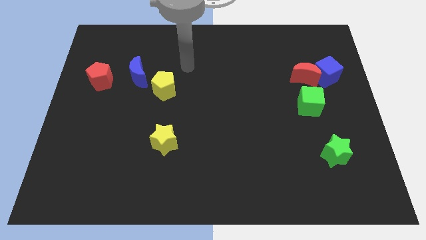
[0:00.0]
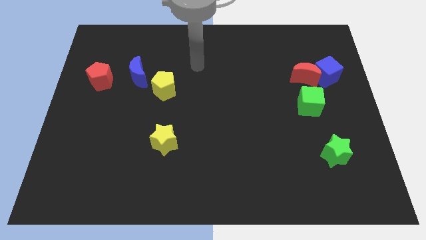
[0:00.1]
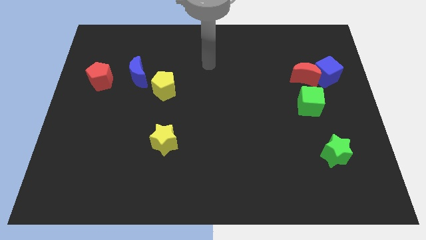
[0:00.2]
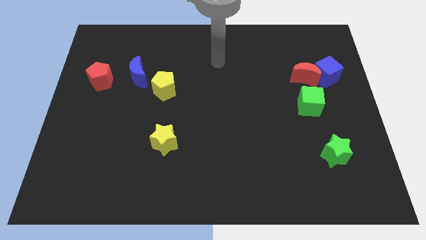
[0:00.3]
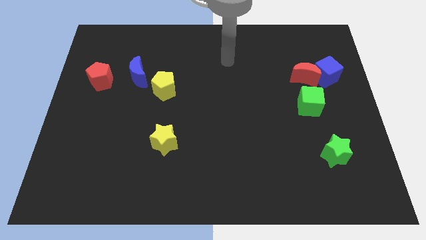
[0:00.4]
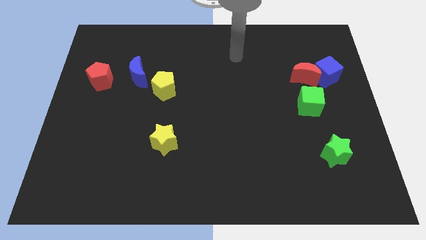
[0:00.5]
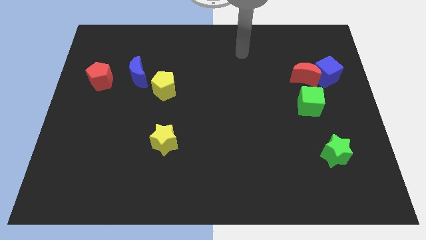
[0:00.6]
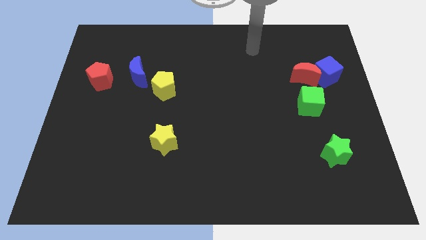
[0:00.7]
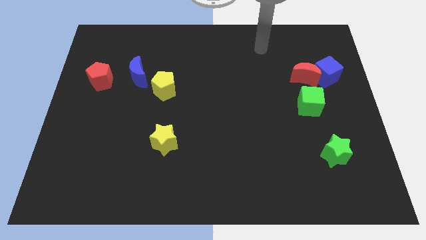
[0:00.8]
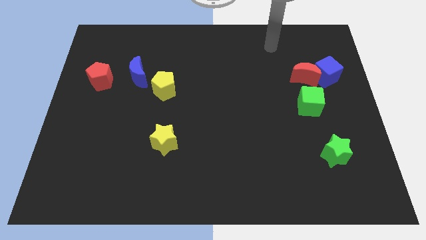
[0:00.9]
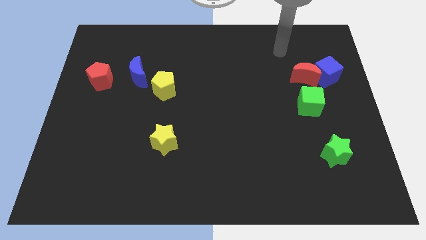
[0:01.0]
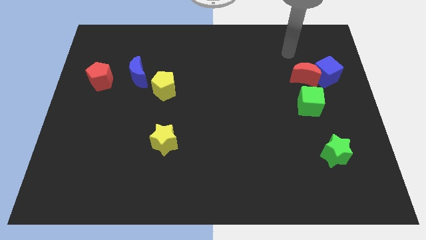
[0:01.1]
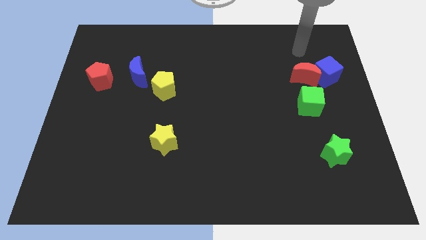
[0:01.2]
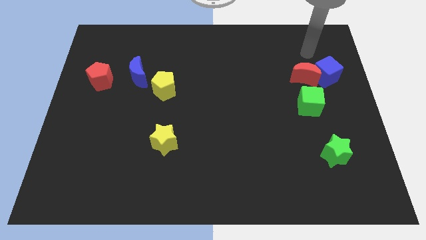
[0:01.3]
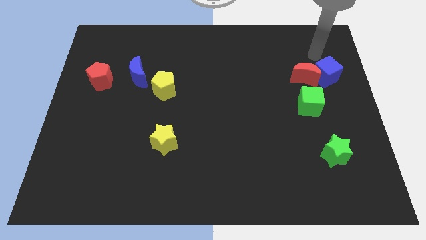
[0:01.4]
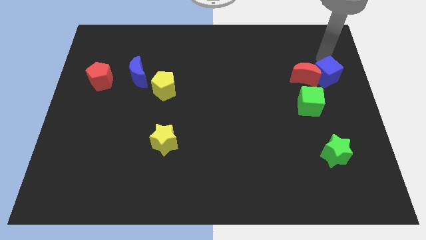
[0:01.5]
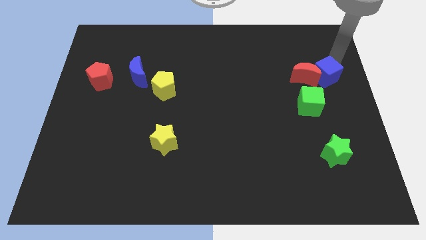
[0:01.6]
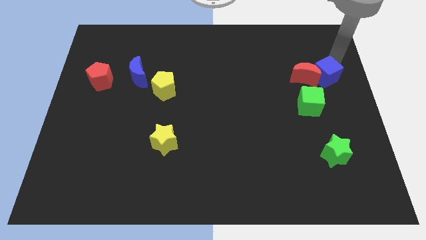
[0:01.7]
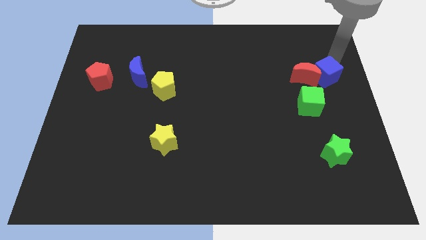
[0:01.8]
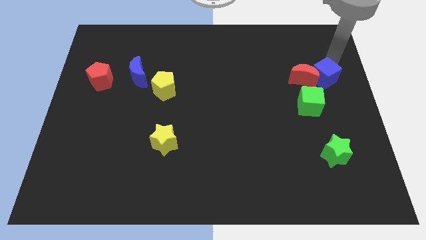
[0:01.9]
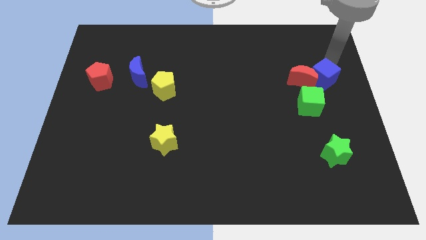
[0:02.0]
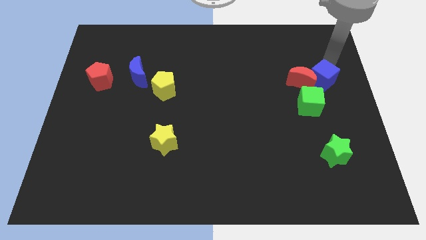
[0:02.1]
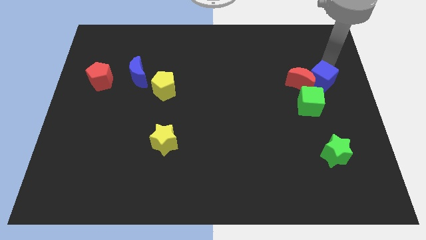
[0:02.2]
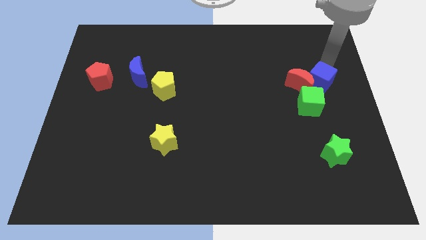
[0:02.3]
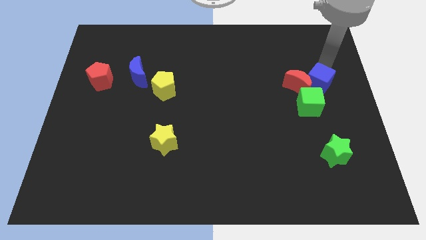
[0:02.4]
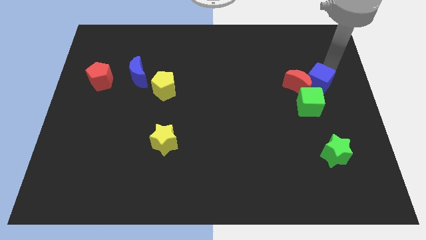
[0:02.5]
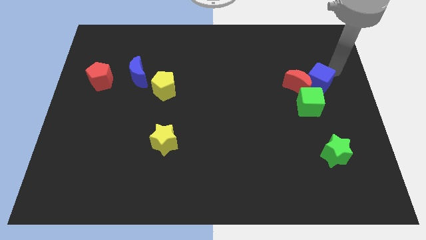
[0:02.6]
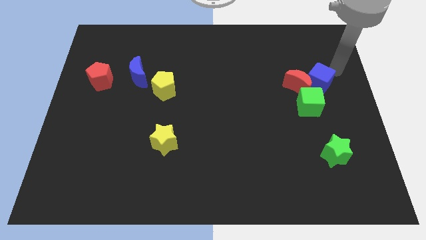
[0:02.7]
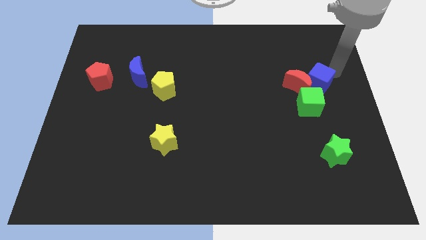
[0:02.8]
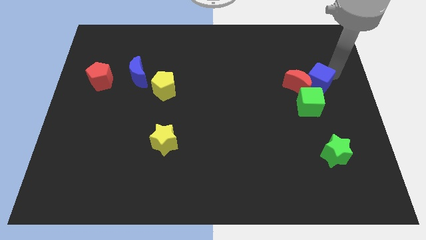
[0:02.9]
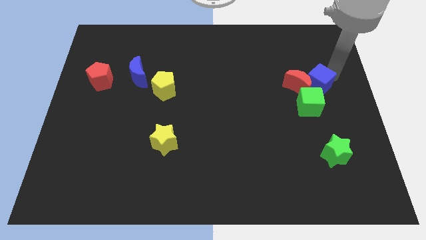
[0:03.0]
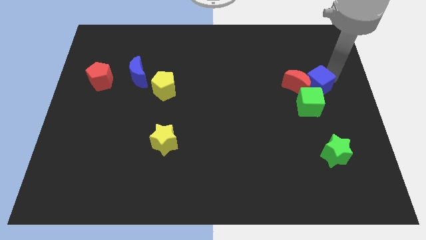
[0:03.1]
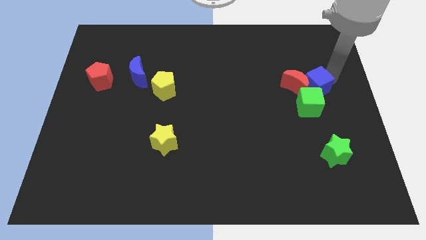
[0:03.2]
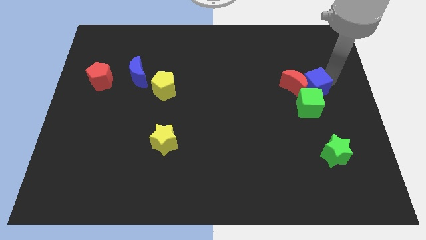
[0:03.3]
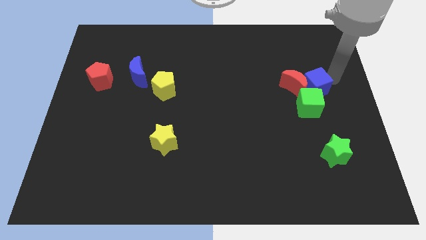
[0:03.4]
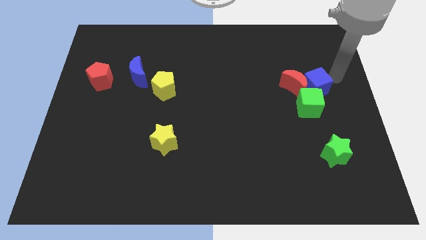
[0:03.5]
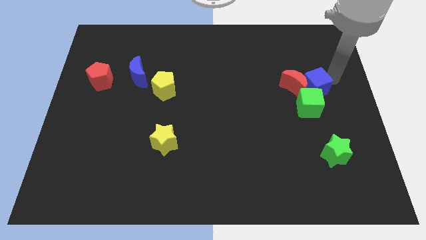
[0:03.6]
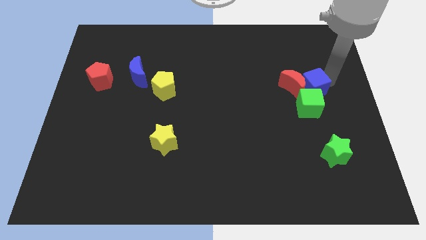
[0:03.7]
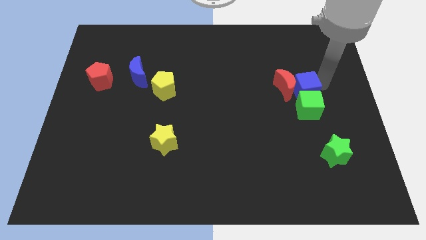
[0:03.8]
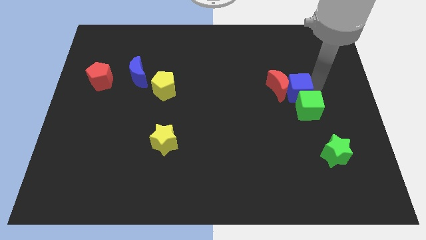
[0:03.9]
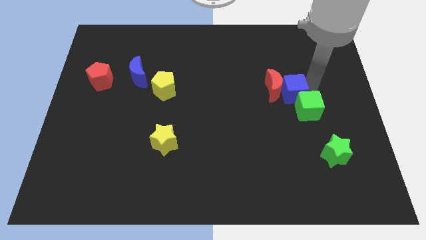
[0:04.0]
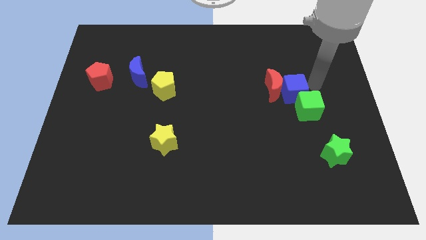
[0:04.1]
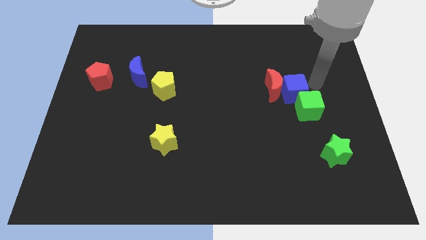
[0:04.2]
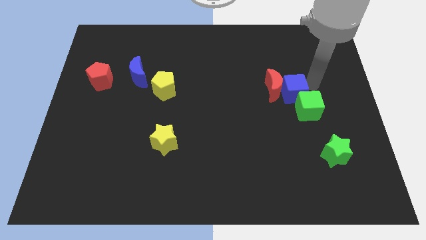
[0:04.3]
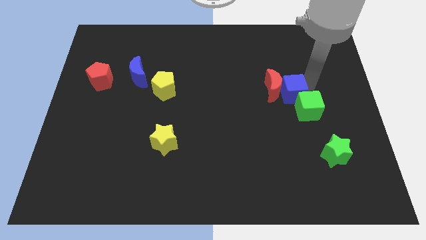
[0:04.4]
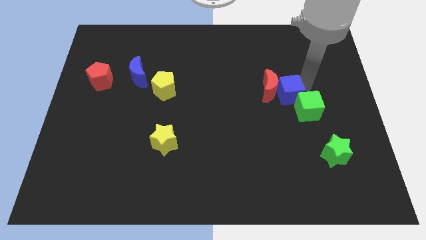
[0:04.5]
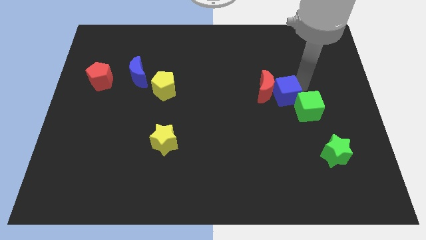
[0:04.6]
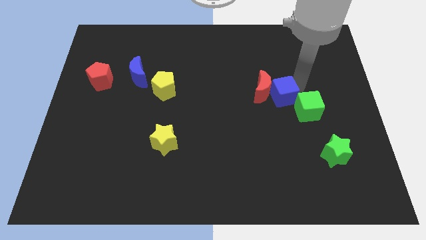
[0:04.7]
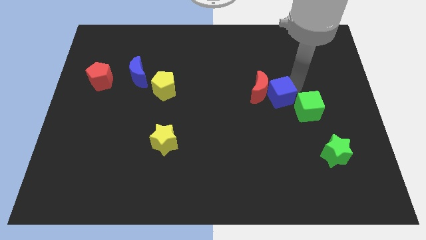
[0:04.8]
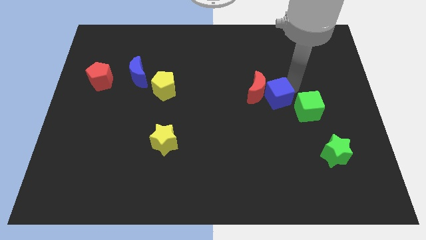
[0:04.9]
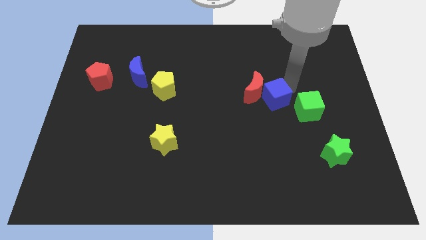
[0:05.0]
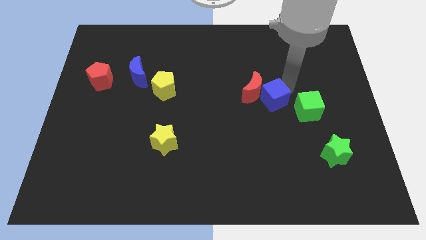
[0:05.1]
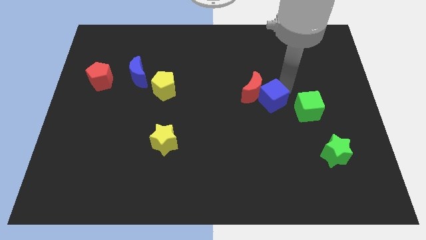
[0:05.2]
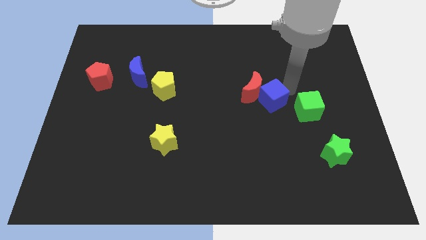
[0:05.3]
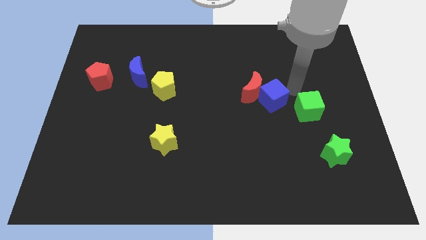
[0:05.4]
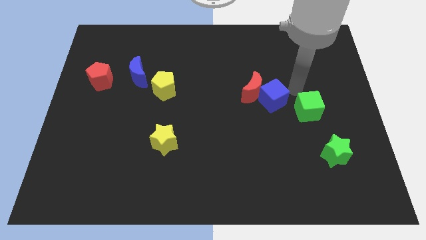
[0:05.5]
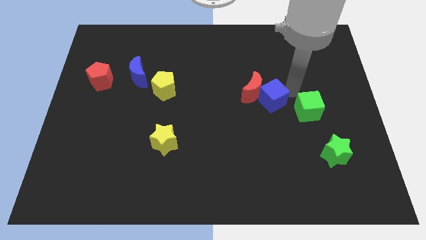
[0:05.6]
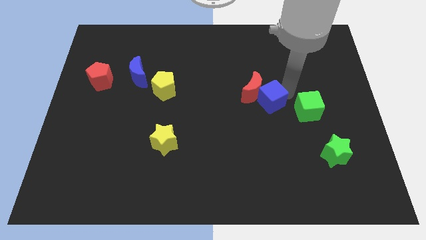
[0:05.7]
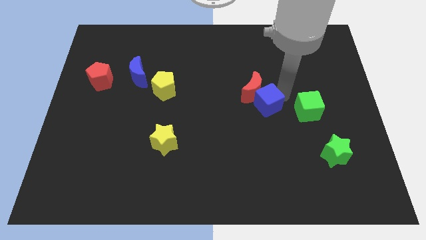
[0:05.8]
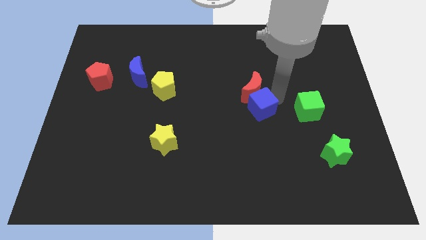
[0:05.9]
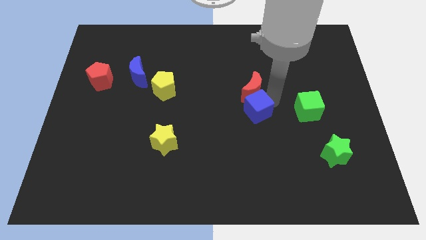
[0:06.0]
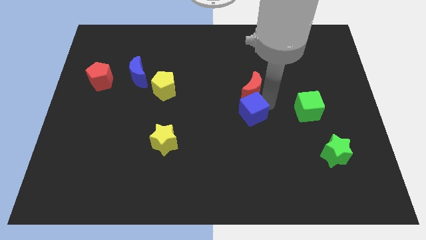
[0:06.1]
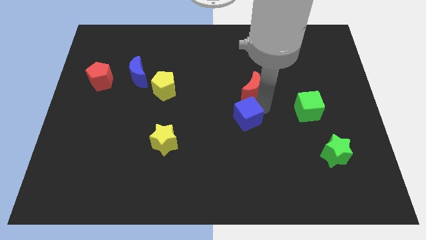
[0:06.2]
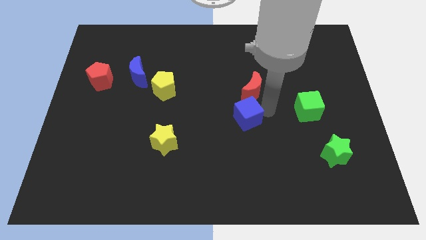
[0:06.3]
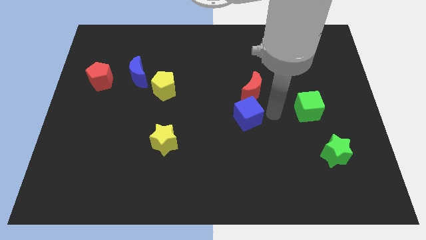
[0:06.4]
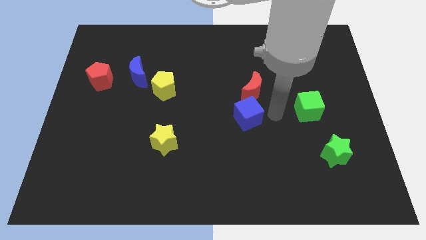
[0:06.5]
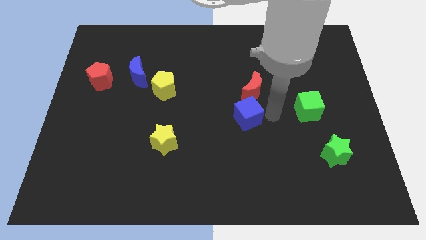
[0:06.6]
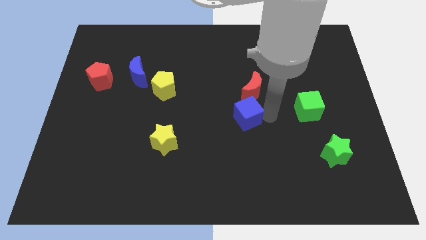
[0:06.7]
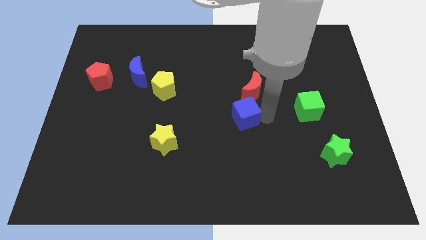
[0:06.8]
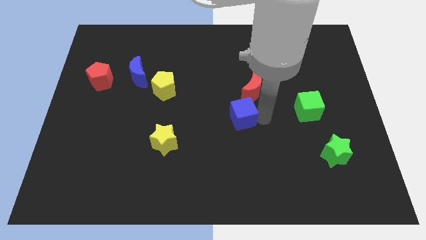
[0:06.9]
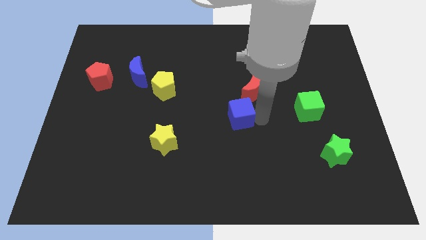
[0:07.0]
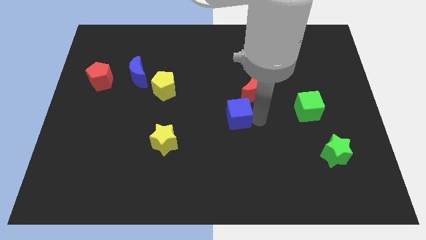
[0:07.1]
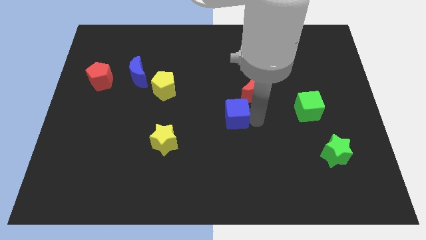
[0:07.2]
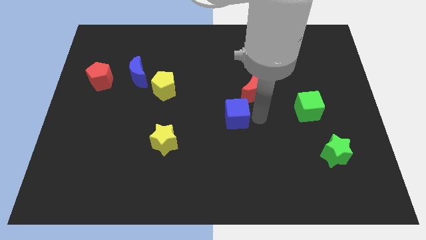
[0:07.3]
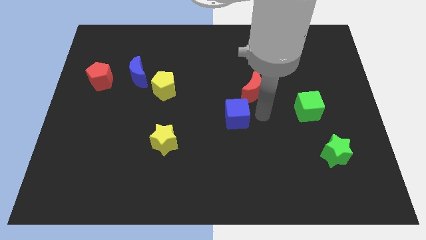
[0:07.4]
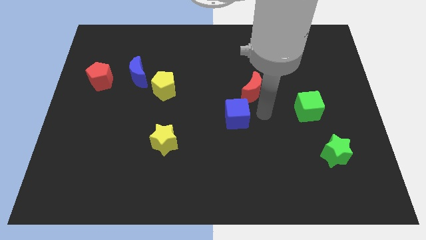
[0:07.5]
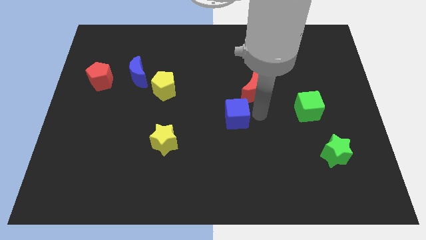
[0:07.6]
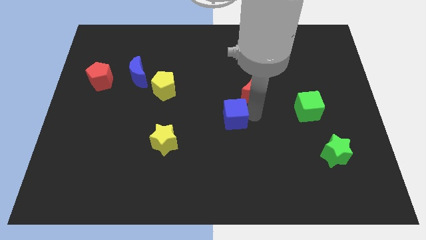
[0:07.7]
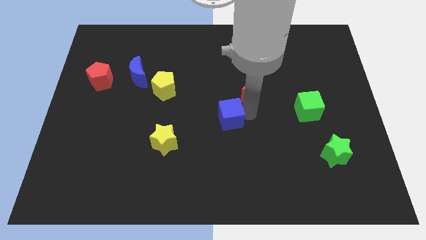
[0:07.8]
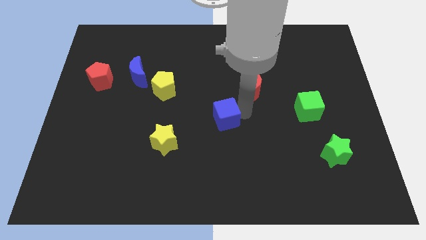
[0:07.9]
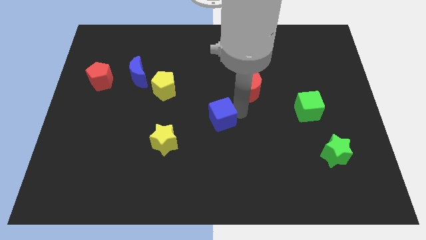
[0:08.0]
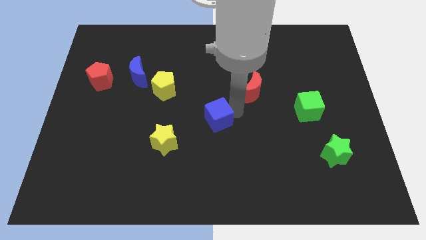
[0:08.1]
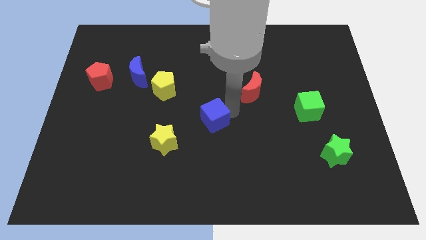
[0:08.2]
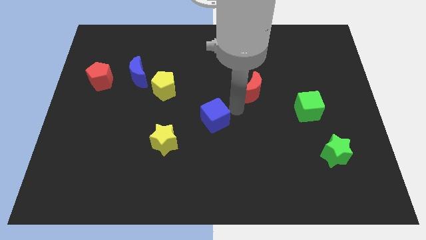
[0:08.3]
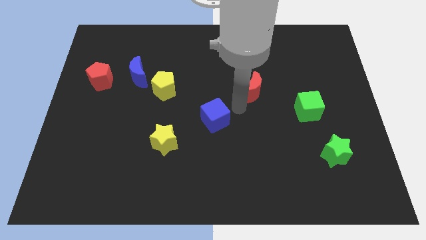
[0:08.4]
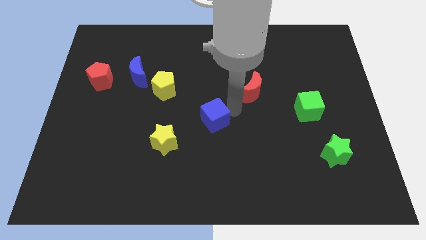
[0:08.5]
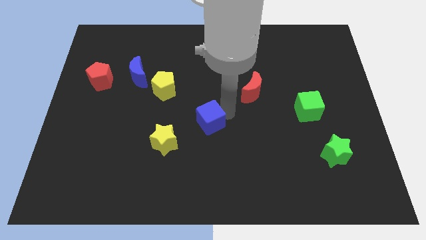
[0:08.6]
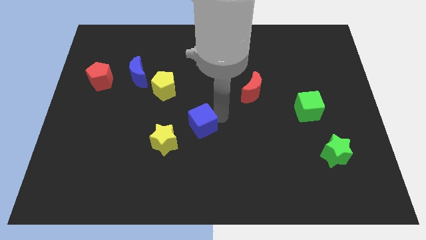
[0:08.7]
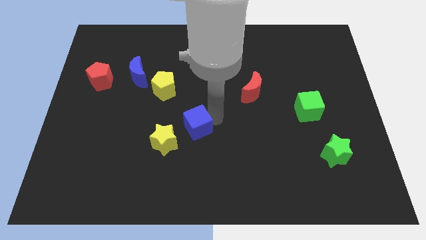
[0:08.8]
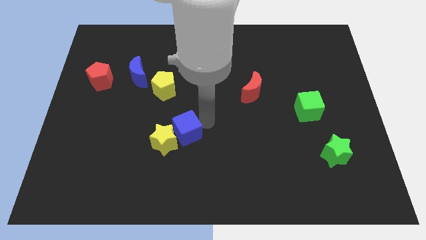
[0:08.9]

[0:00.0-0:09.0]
push the blue cube close to the yellow star
